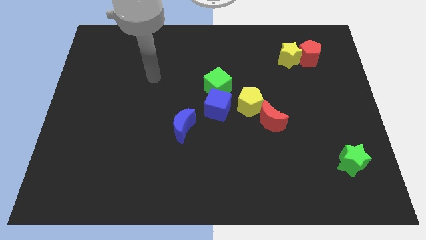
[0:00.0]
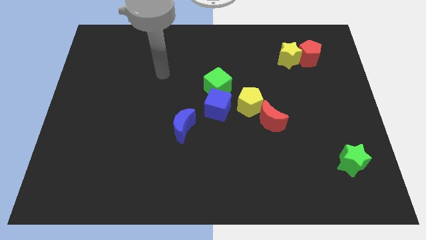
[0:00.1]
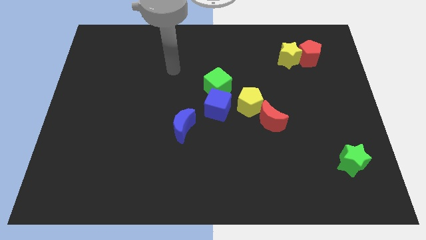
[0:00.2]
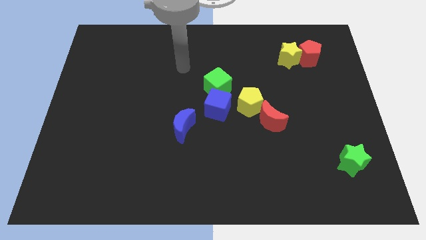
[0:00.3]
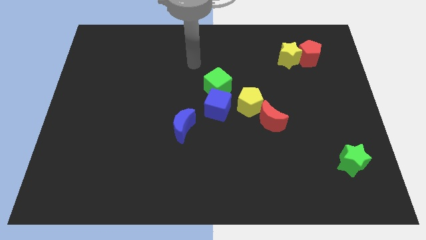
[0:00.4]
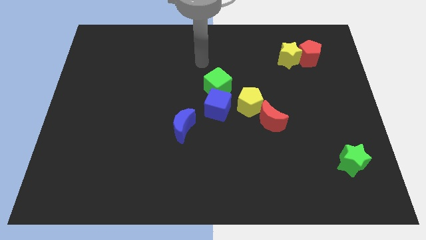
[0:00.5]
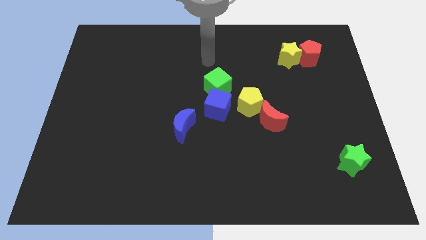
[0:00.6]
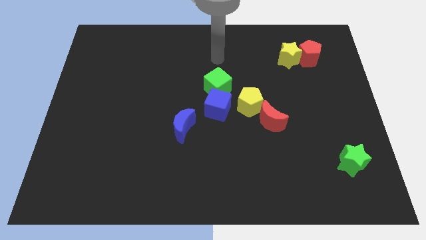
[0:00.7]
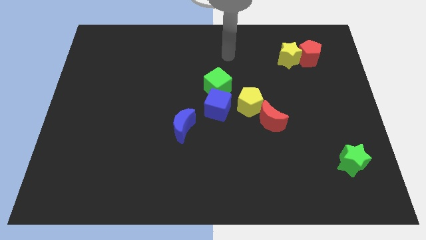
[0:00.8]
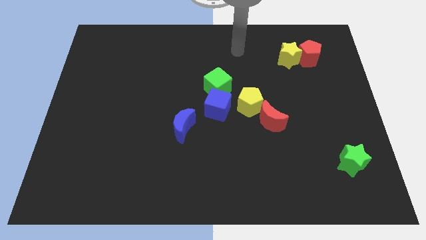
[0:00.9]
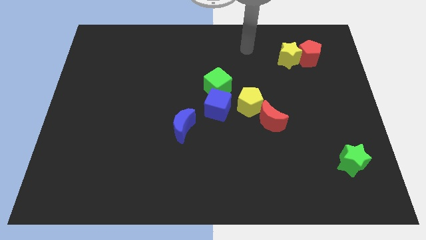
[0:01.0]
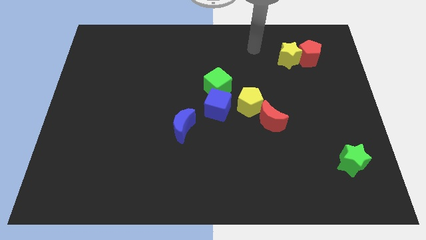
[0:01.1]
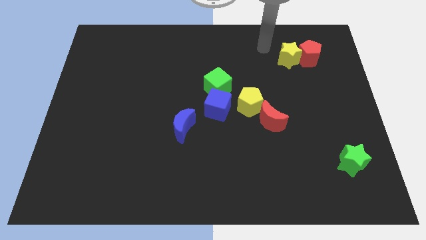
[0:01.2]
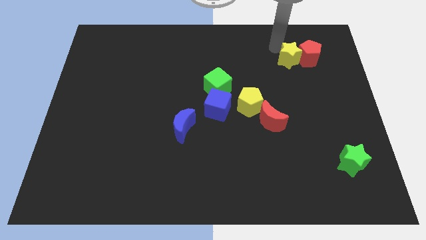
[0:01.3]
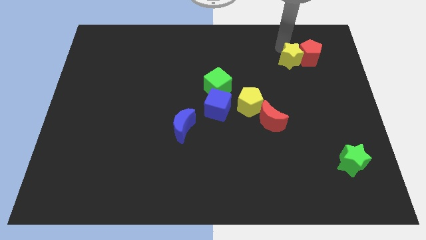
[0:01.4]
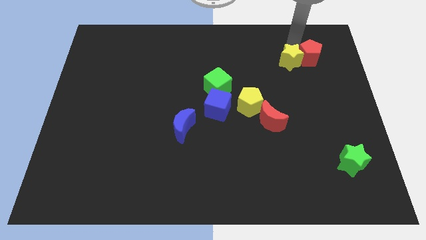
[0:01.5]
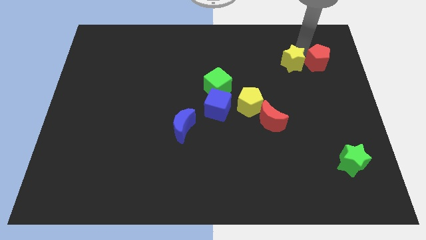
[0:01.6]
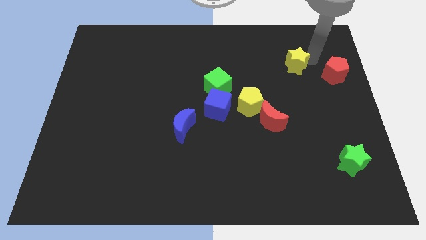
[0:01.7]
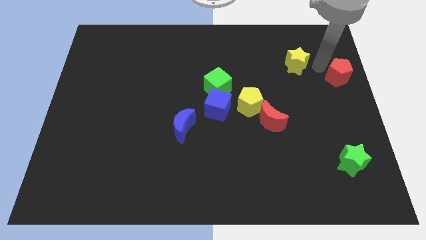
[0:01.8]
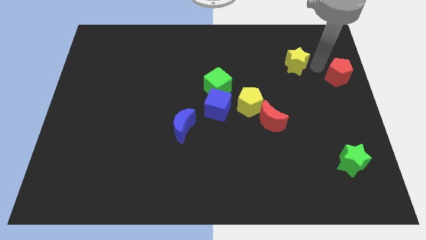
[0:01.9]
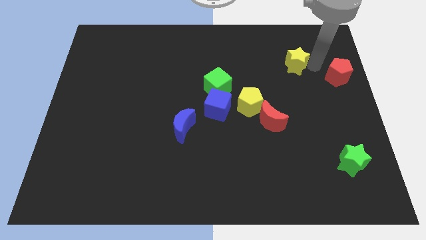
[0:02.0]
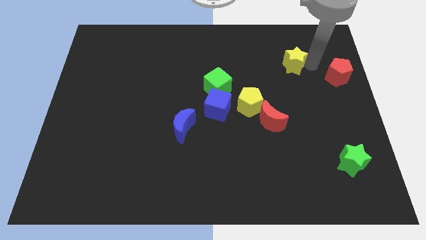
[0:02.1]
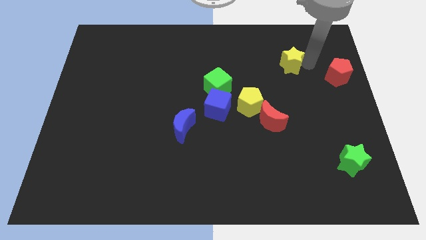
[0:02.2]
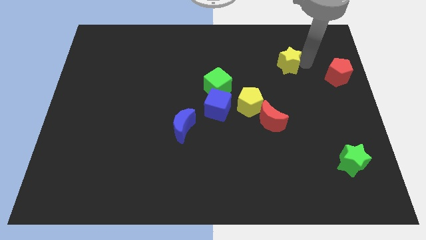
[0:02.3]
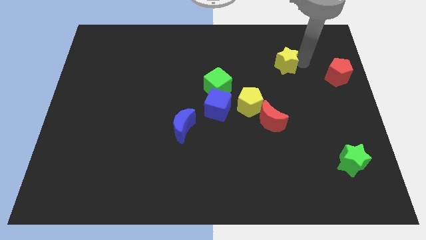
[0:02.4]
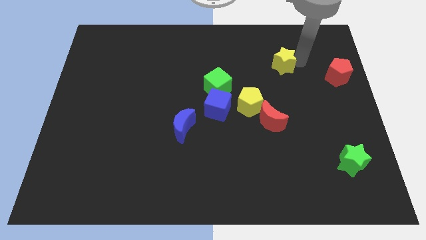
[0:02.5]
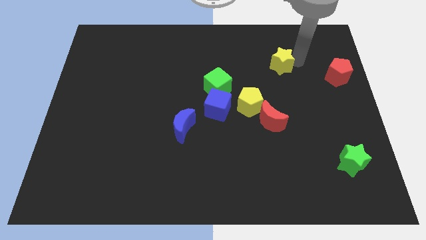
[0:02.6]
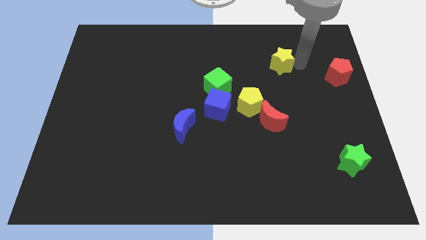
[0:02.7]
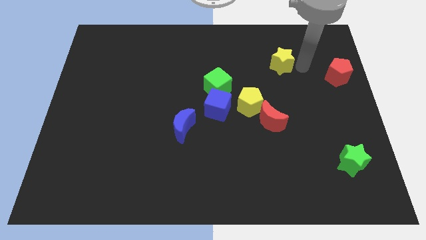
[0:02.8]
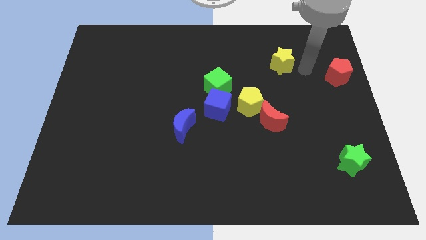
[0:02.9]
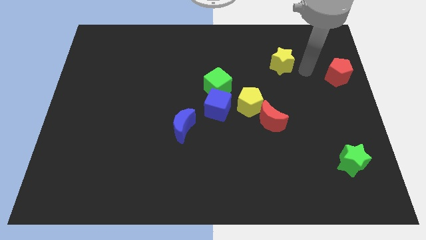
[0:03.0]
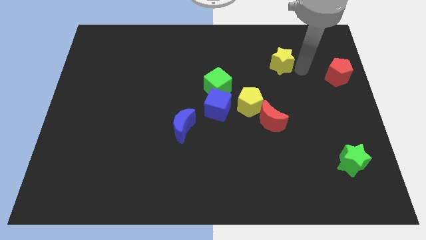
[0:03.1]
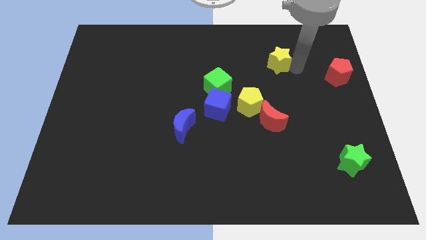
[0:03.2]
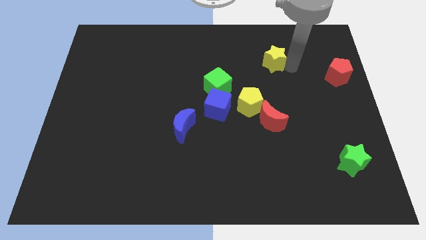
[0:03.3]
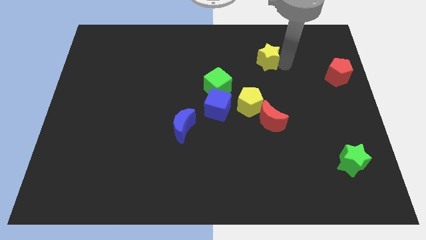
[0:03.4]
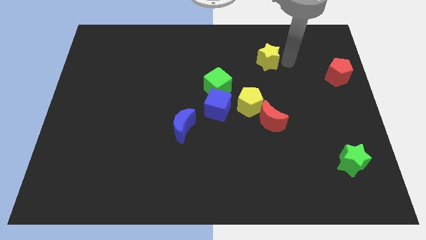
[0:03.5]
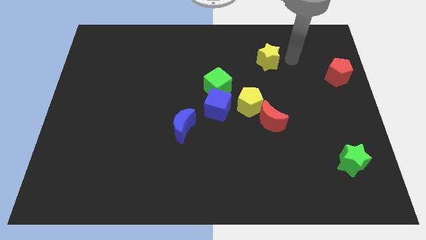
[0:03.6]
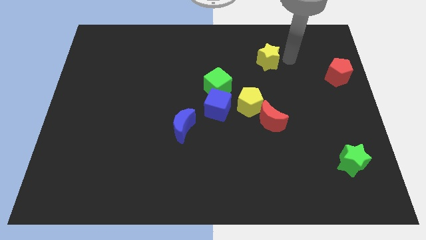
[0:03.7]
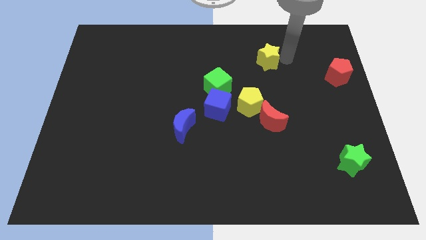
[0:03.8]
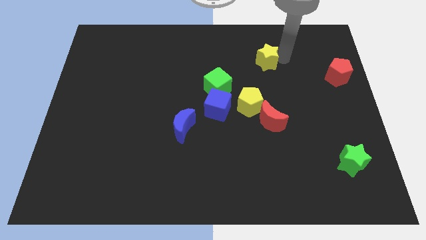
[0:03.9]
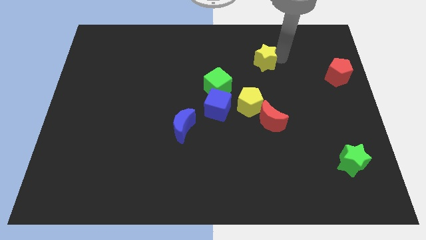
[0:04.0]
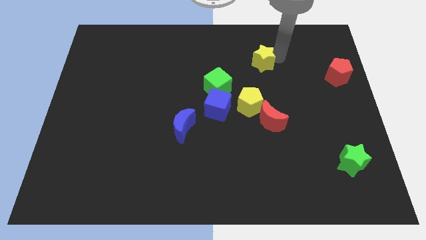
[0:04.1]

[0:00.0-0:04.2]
slightly push the yellow star to the left

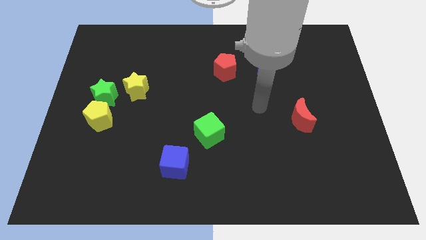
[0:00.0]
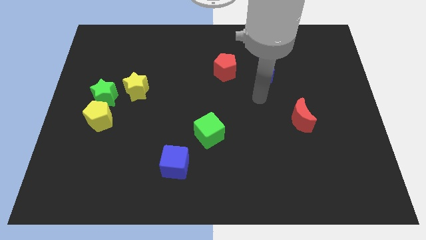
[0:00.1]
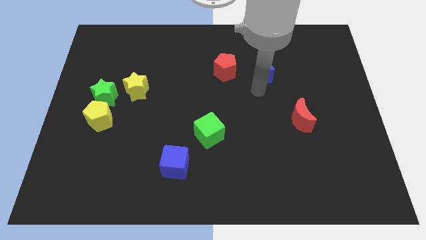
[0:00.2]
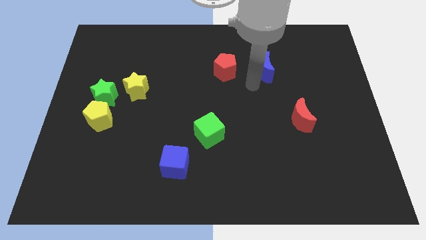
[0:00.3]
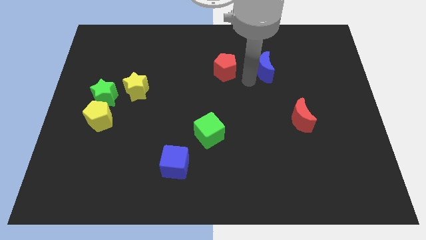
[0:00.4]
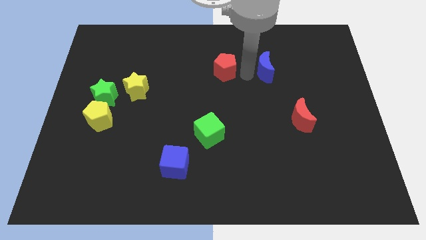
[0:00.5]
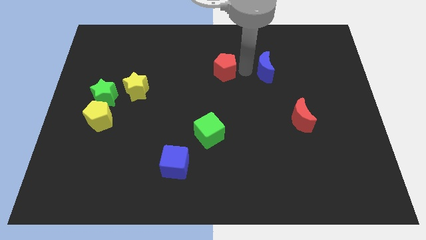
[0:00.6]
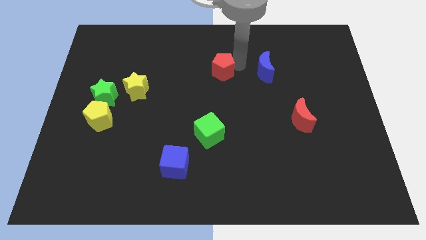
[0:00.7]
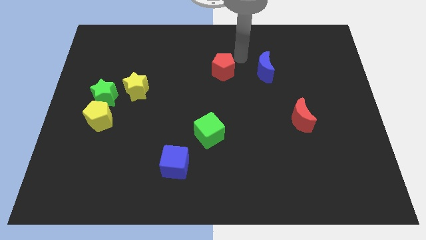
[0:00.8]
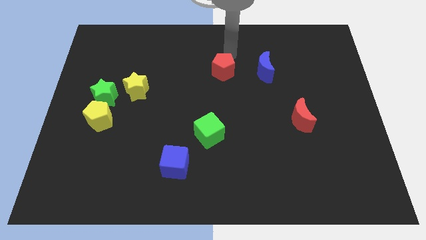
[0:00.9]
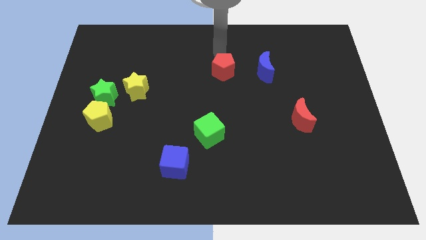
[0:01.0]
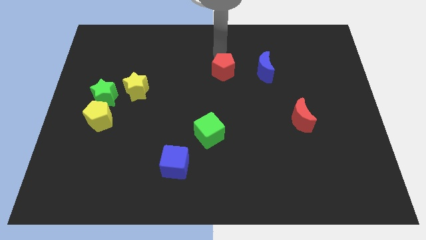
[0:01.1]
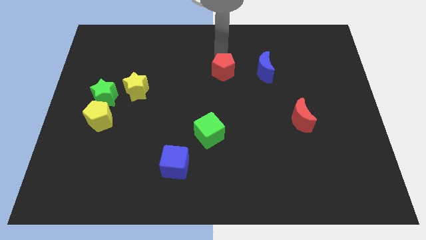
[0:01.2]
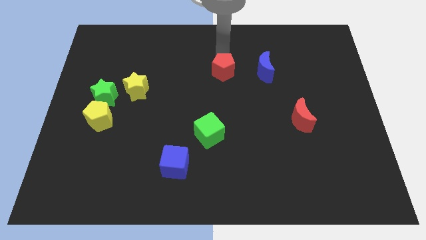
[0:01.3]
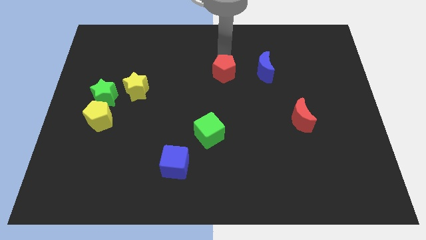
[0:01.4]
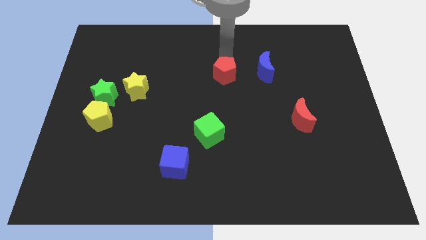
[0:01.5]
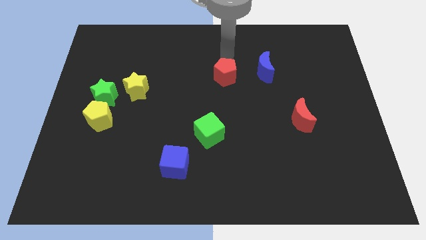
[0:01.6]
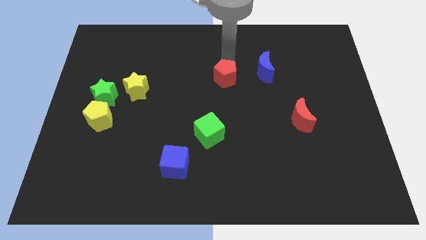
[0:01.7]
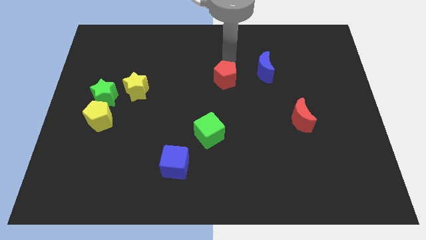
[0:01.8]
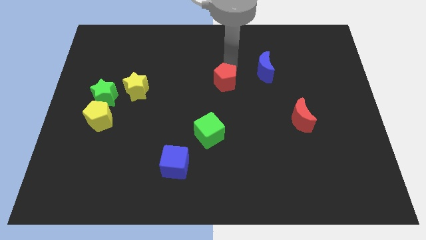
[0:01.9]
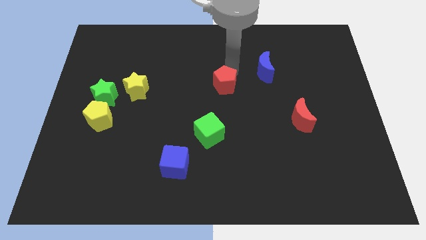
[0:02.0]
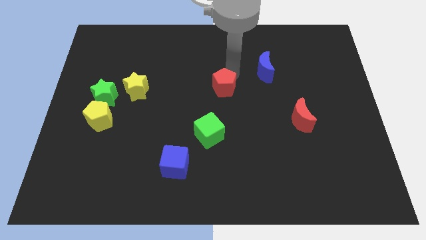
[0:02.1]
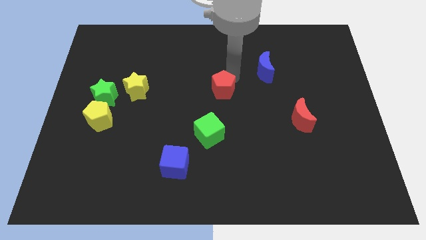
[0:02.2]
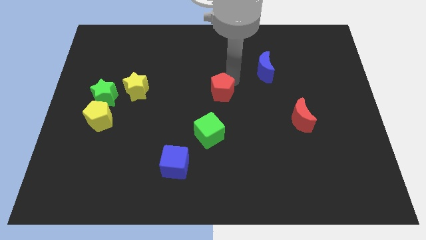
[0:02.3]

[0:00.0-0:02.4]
slightly move the red pentagon down

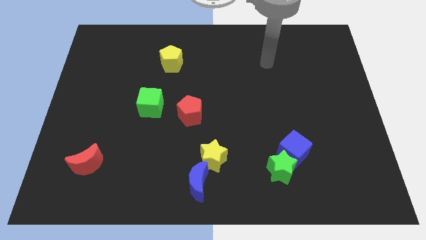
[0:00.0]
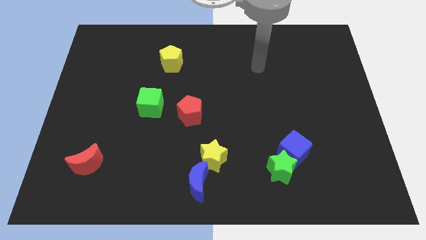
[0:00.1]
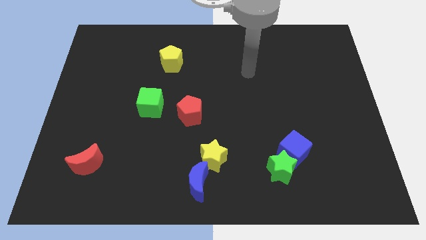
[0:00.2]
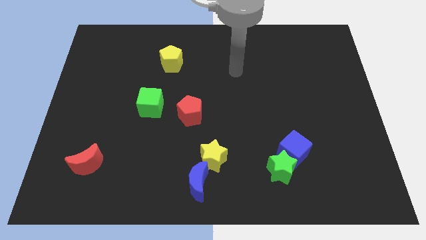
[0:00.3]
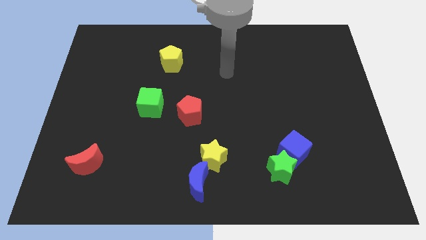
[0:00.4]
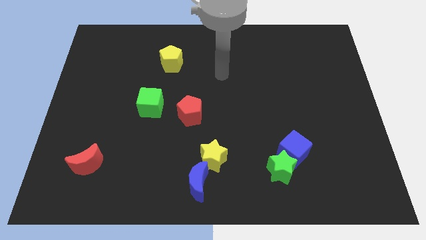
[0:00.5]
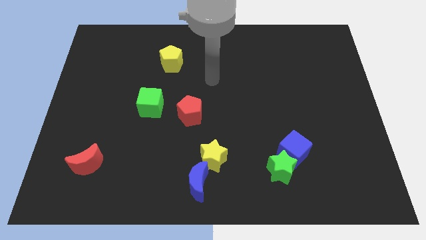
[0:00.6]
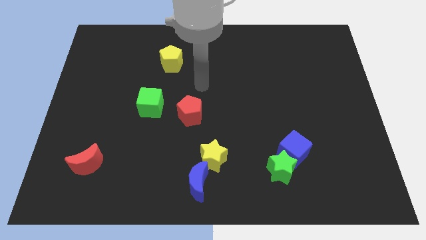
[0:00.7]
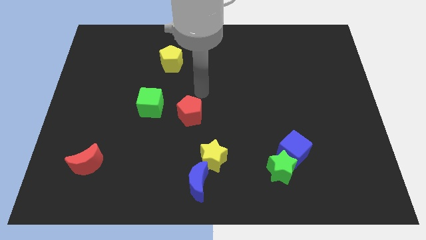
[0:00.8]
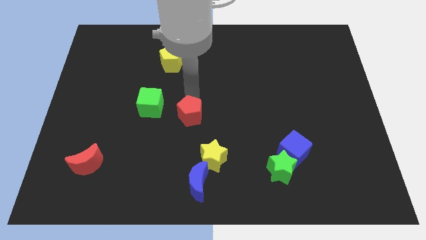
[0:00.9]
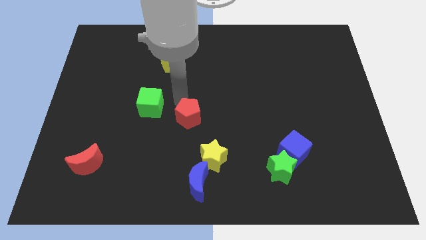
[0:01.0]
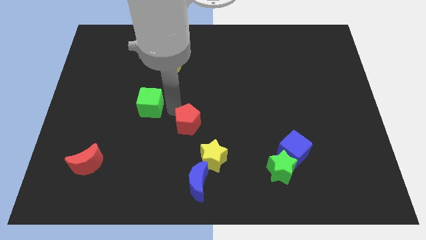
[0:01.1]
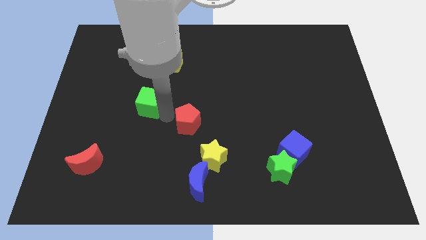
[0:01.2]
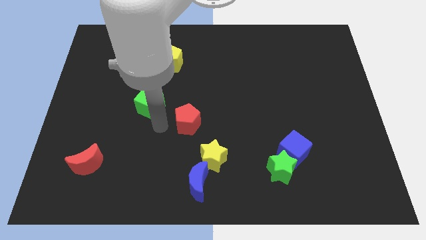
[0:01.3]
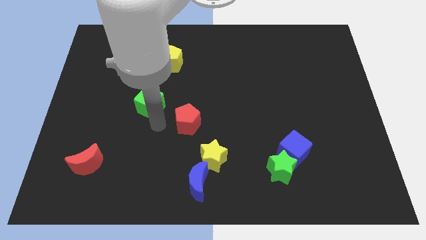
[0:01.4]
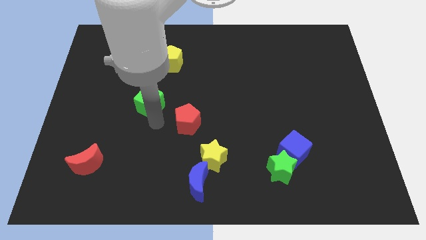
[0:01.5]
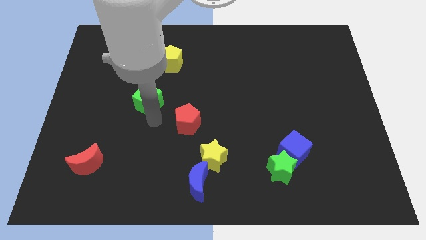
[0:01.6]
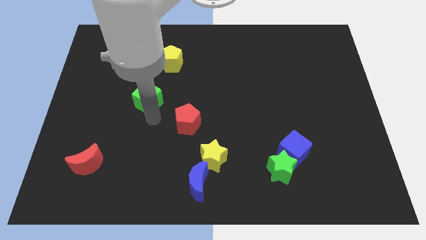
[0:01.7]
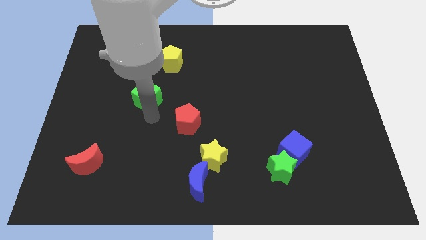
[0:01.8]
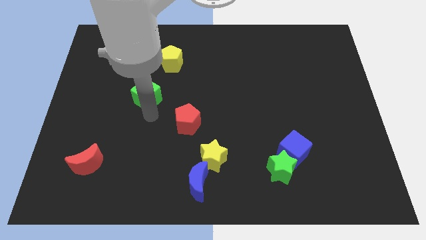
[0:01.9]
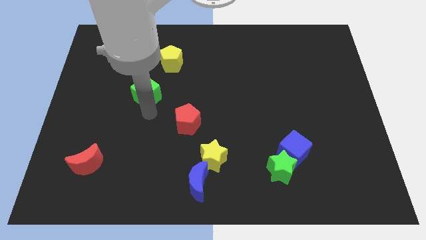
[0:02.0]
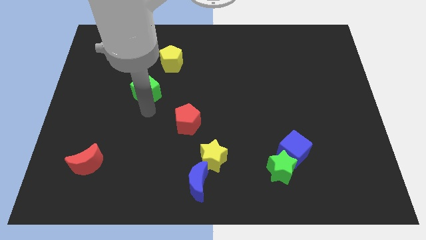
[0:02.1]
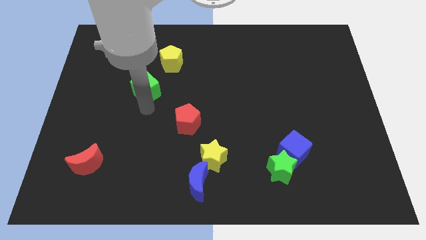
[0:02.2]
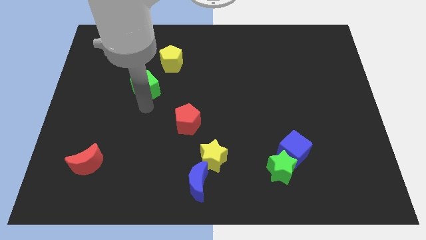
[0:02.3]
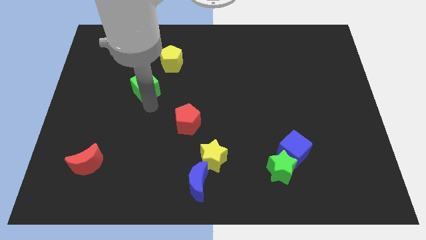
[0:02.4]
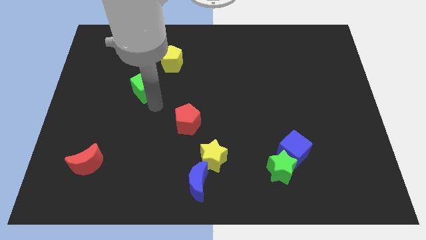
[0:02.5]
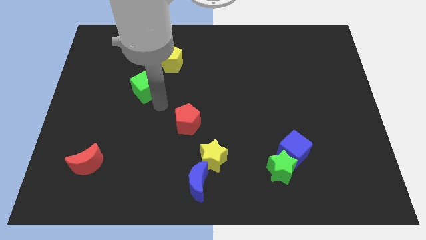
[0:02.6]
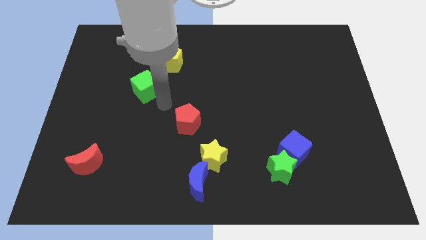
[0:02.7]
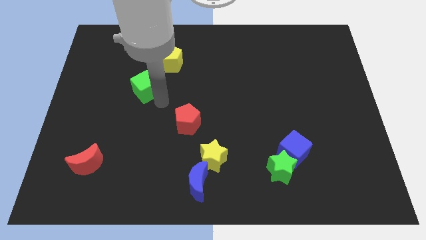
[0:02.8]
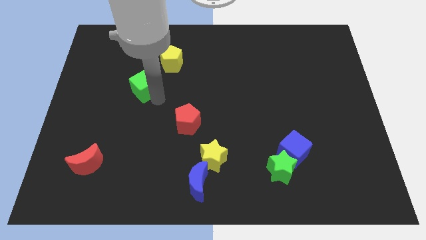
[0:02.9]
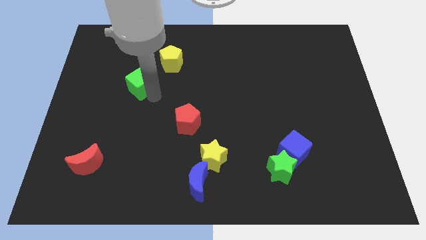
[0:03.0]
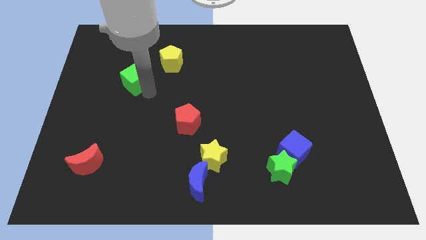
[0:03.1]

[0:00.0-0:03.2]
push the green cube up and then left a little bit
